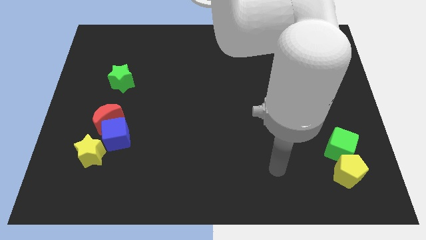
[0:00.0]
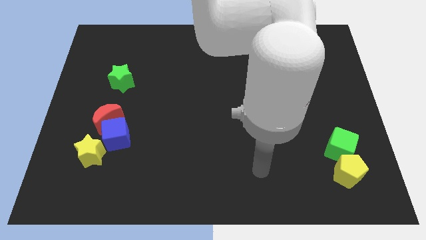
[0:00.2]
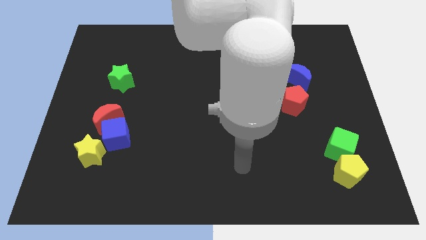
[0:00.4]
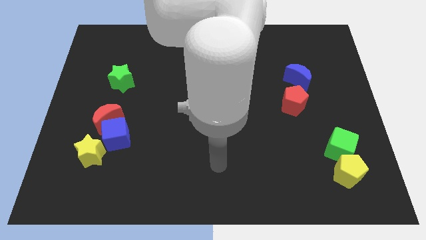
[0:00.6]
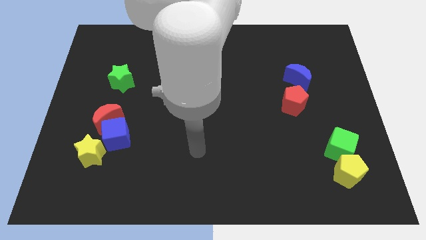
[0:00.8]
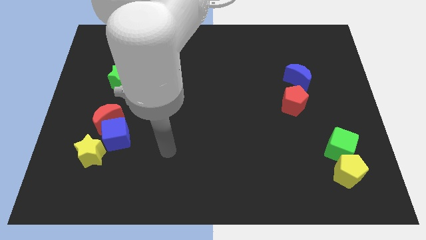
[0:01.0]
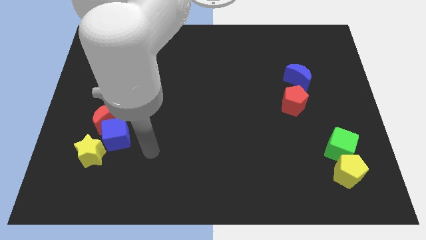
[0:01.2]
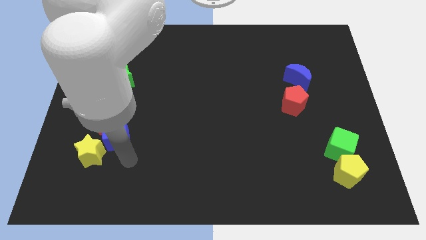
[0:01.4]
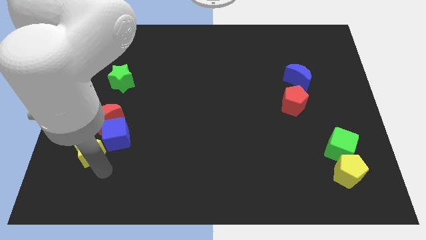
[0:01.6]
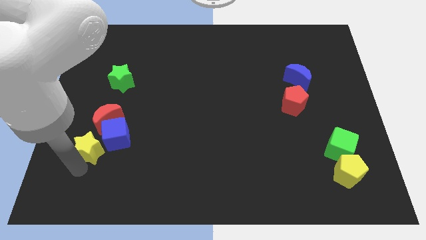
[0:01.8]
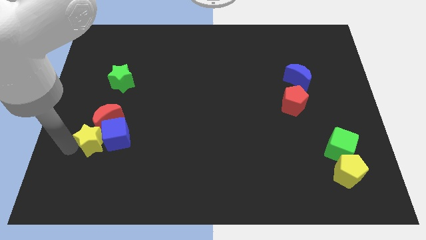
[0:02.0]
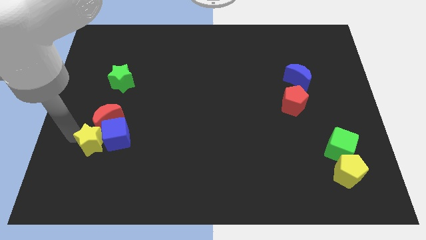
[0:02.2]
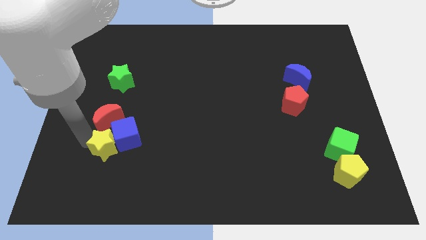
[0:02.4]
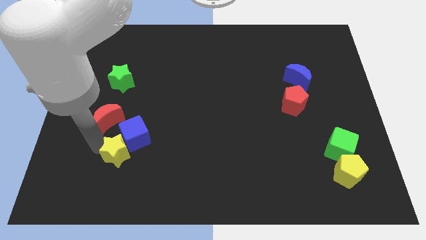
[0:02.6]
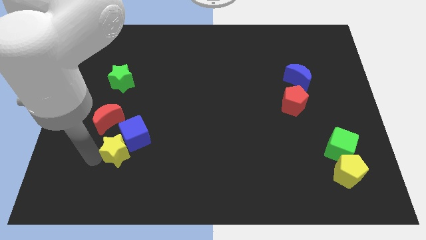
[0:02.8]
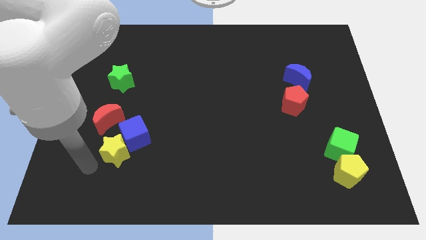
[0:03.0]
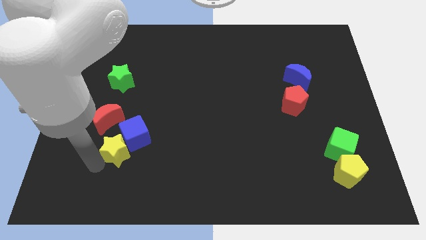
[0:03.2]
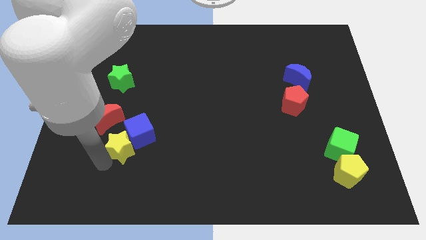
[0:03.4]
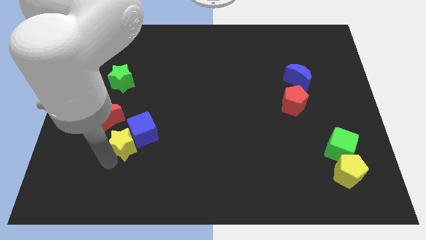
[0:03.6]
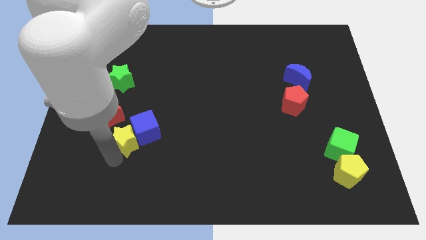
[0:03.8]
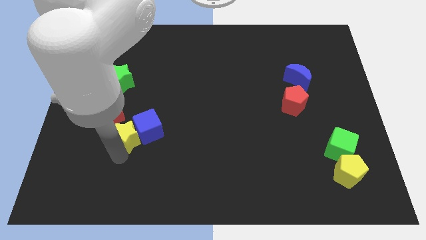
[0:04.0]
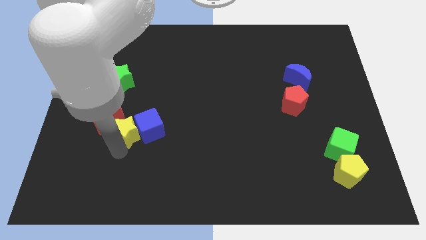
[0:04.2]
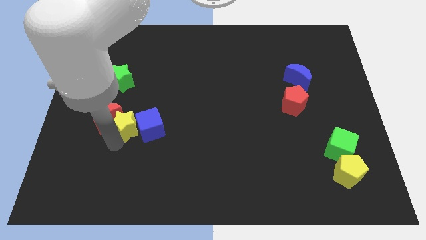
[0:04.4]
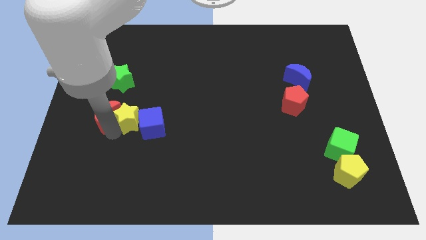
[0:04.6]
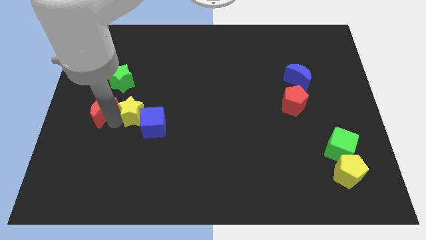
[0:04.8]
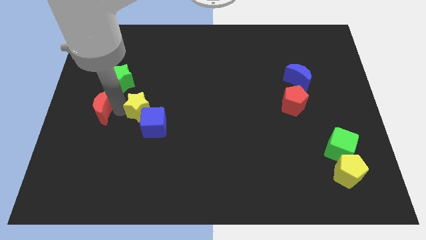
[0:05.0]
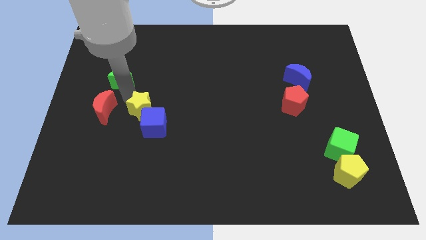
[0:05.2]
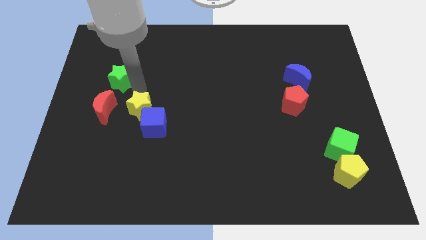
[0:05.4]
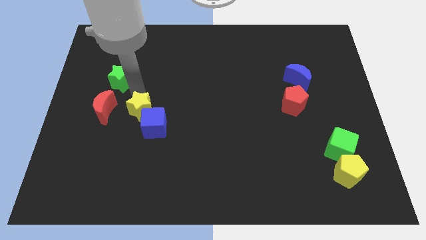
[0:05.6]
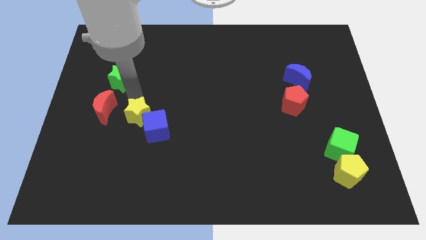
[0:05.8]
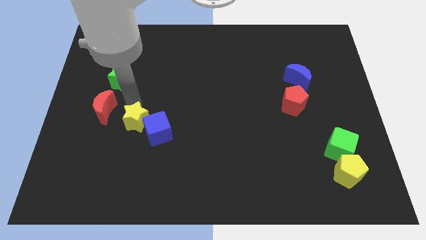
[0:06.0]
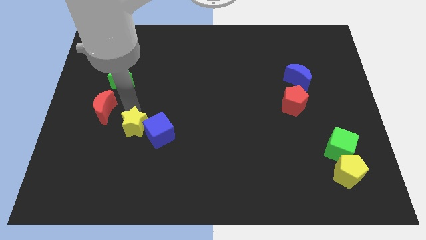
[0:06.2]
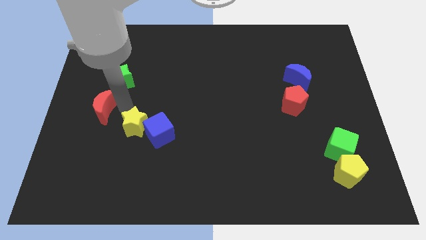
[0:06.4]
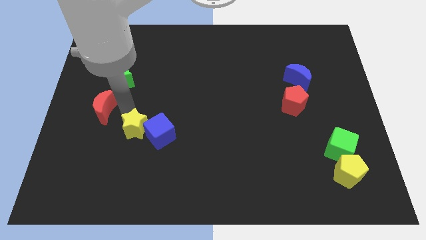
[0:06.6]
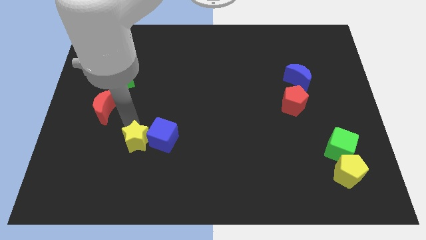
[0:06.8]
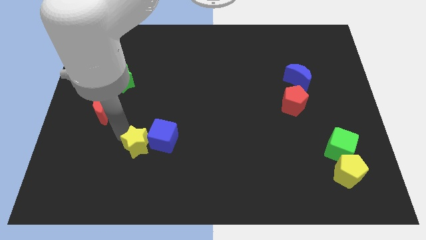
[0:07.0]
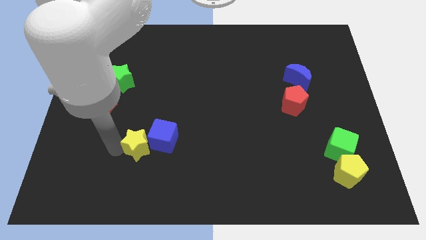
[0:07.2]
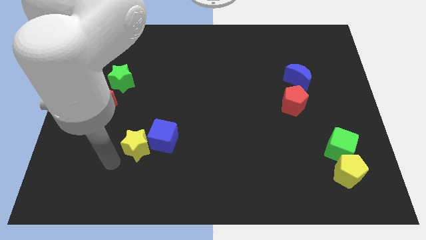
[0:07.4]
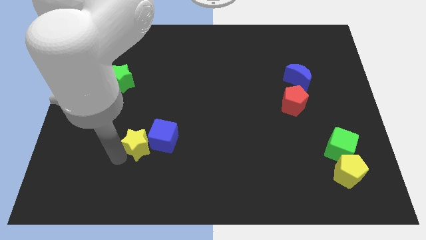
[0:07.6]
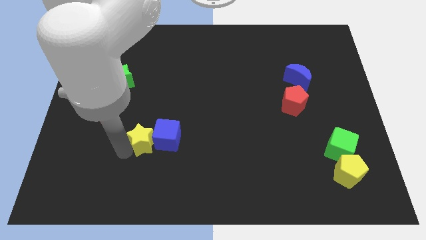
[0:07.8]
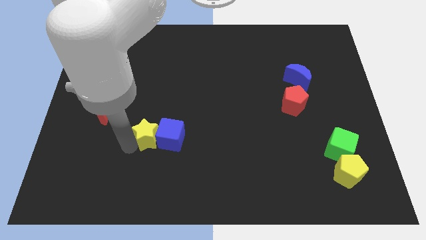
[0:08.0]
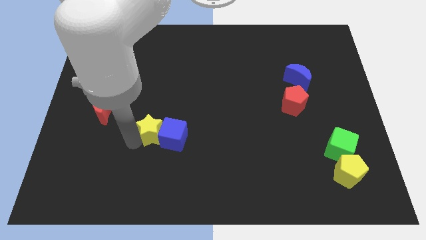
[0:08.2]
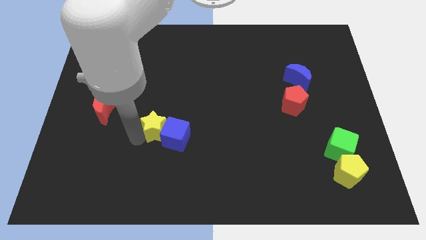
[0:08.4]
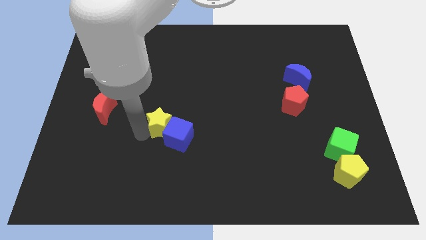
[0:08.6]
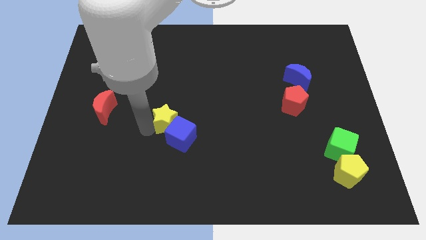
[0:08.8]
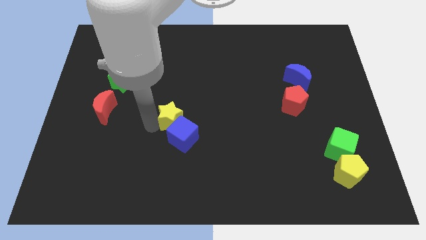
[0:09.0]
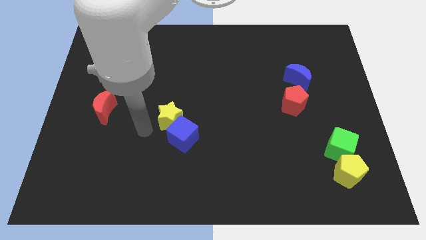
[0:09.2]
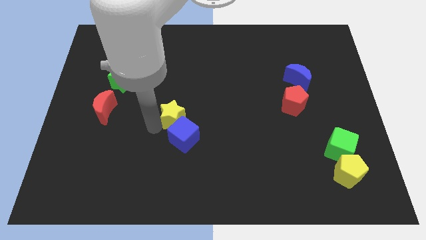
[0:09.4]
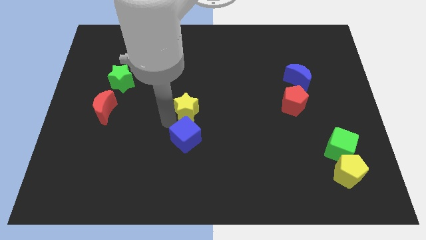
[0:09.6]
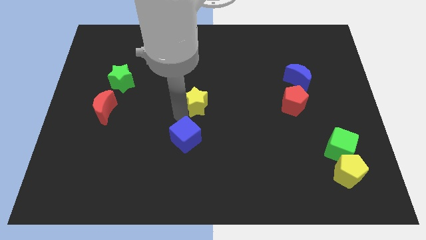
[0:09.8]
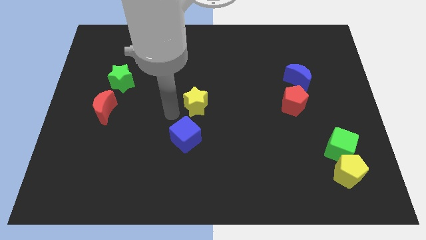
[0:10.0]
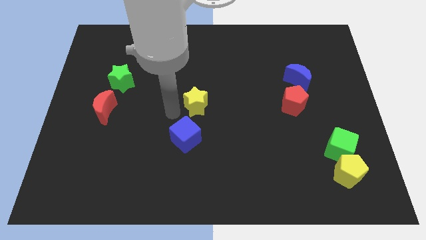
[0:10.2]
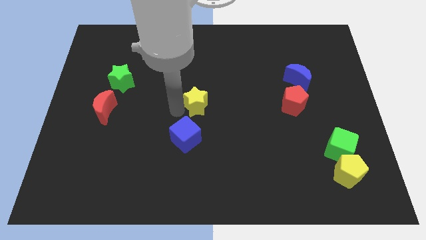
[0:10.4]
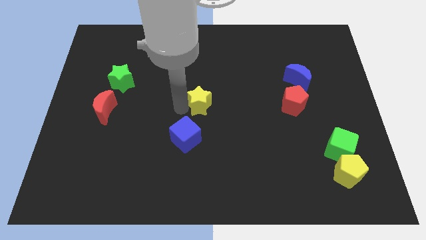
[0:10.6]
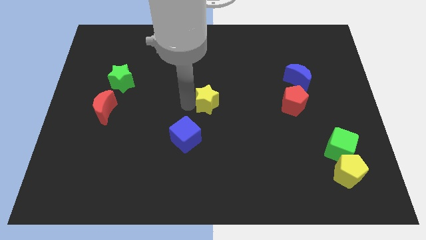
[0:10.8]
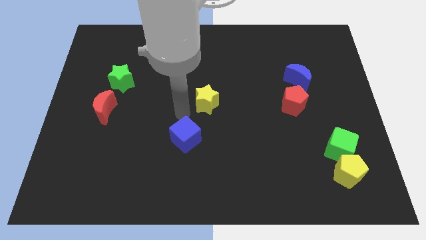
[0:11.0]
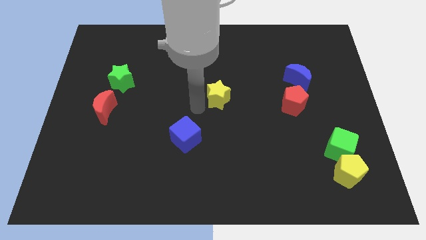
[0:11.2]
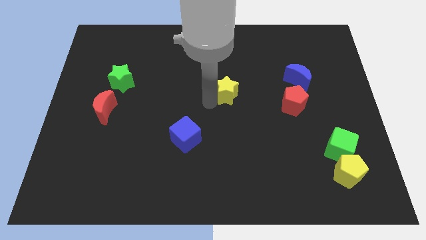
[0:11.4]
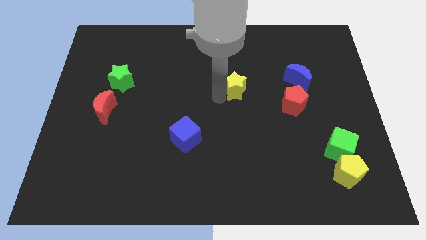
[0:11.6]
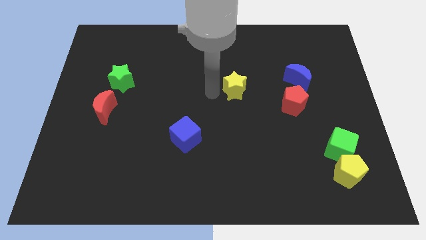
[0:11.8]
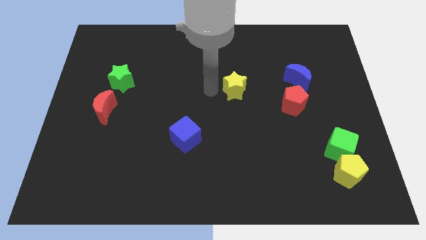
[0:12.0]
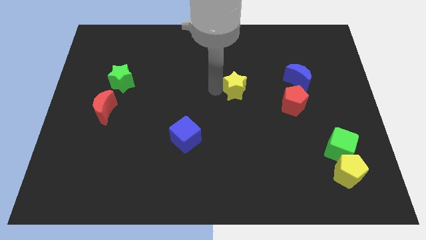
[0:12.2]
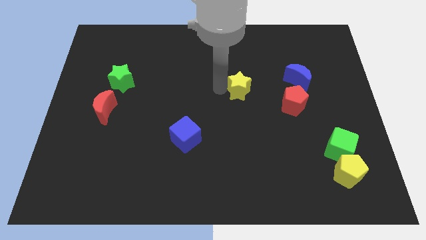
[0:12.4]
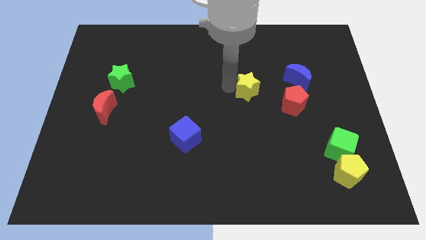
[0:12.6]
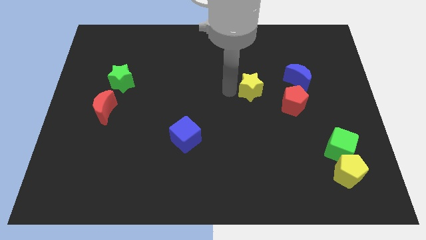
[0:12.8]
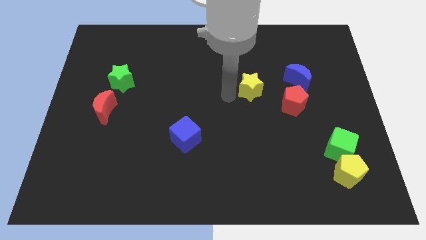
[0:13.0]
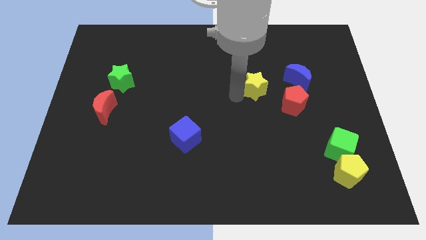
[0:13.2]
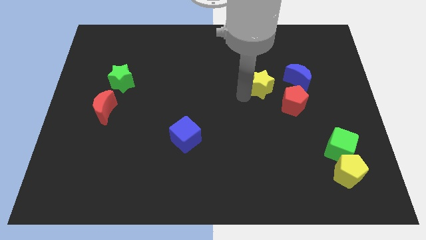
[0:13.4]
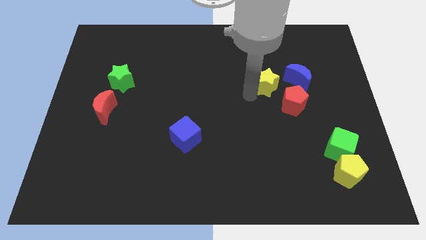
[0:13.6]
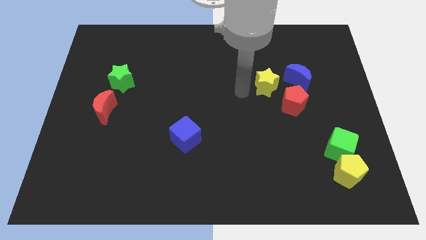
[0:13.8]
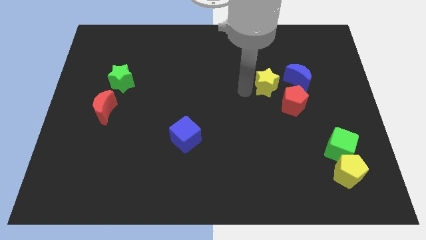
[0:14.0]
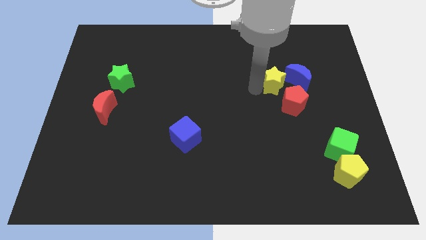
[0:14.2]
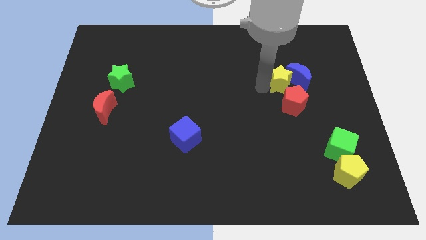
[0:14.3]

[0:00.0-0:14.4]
put the yellow star close to the blue moon
